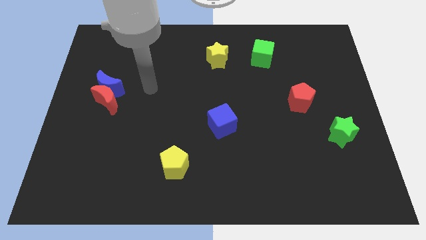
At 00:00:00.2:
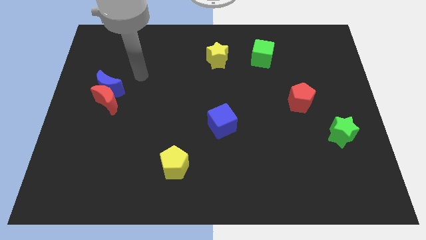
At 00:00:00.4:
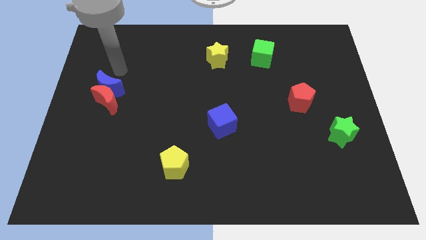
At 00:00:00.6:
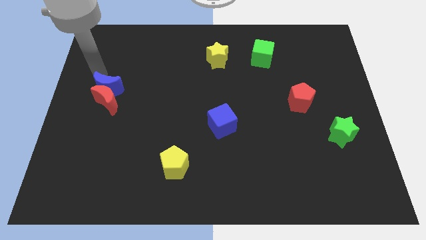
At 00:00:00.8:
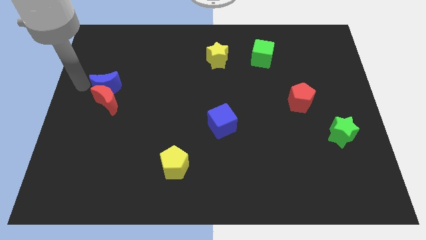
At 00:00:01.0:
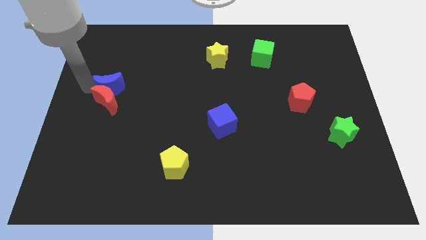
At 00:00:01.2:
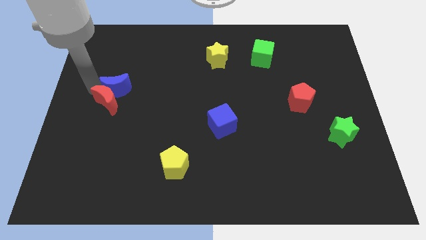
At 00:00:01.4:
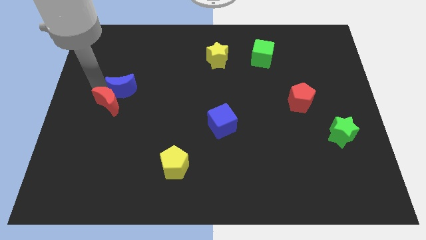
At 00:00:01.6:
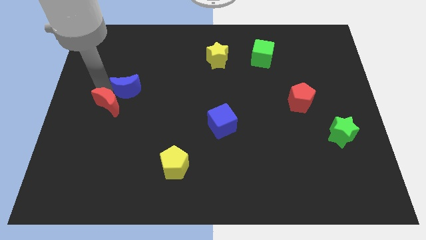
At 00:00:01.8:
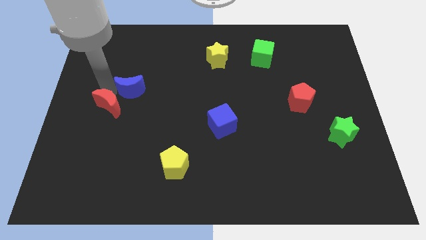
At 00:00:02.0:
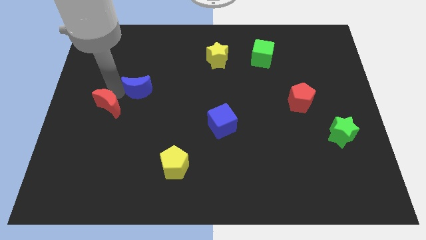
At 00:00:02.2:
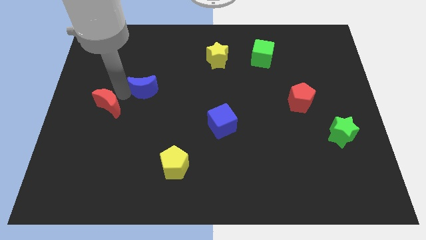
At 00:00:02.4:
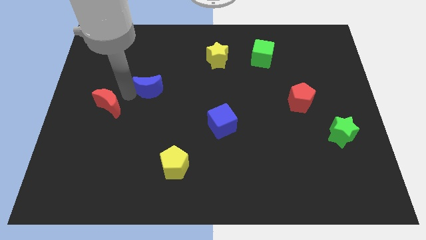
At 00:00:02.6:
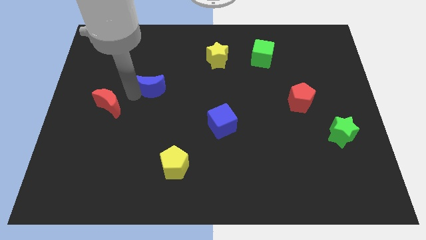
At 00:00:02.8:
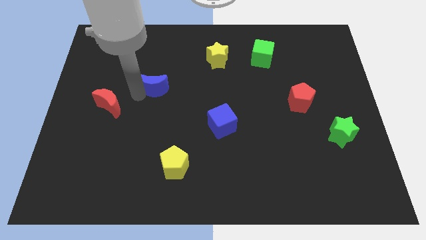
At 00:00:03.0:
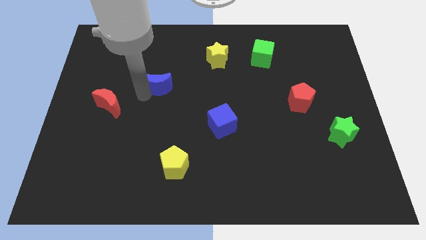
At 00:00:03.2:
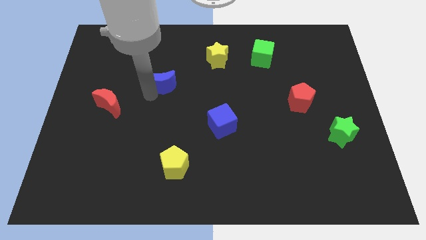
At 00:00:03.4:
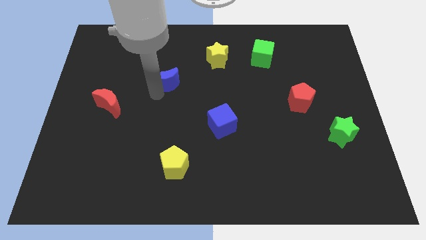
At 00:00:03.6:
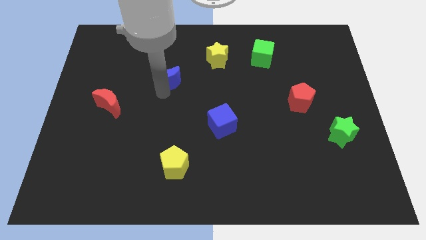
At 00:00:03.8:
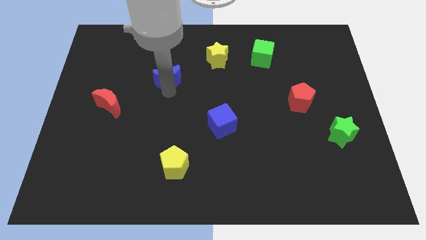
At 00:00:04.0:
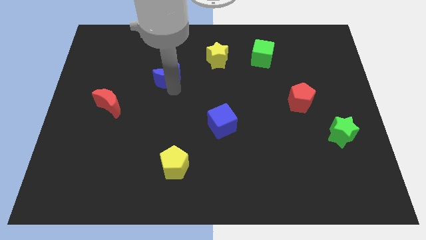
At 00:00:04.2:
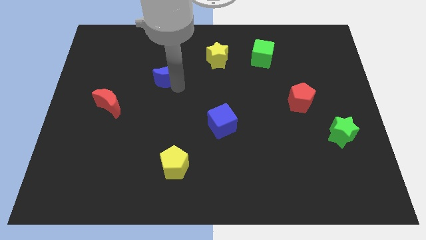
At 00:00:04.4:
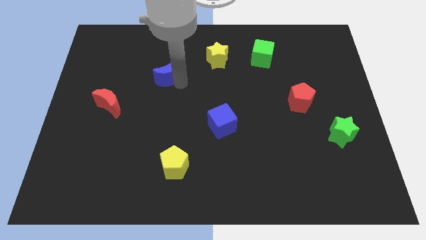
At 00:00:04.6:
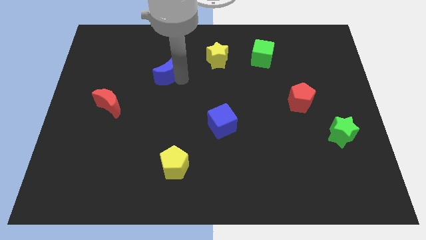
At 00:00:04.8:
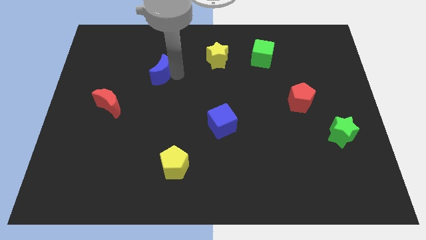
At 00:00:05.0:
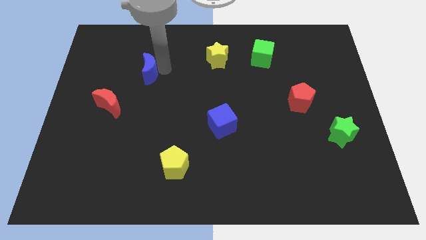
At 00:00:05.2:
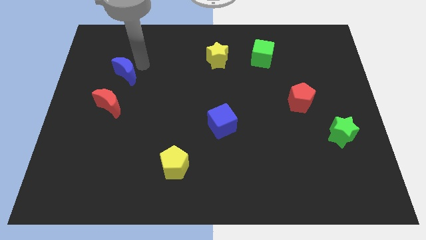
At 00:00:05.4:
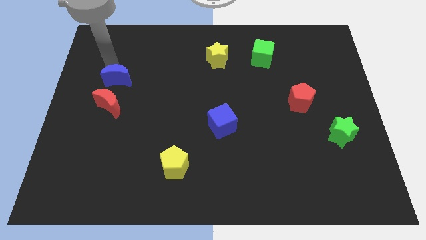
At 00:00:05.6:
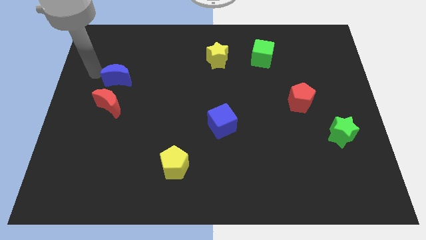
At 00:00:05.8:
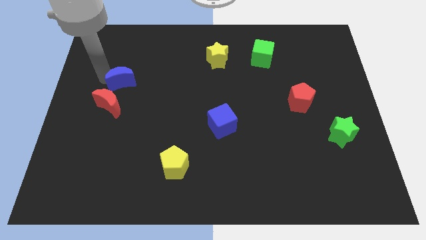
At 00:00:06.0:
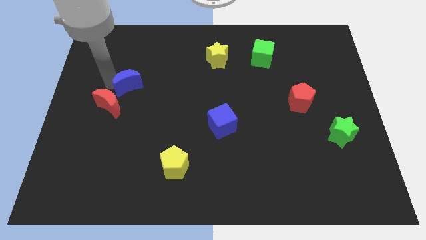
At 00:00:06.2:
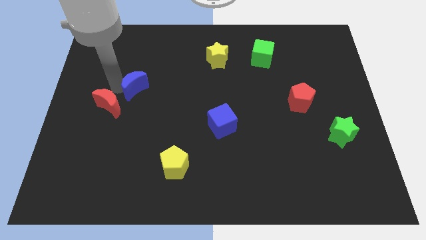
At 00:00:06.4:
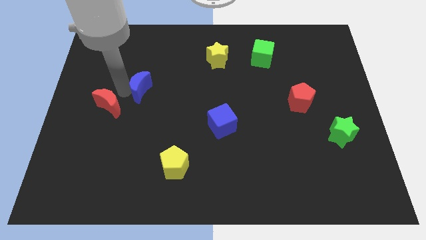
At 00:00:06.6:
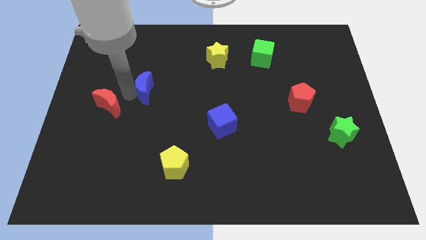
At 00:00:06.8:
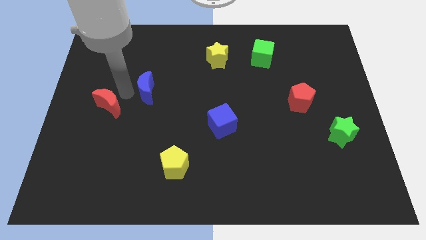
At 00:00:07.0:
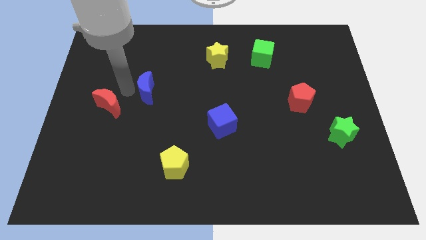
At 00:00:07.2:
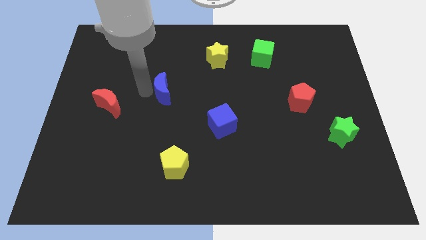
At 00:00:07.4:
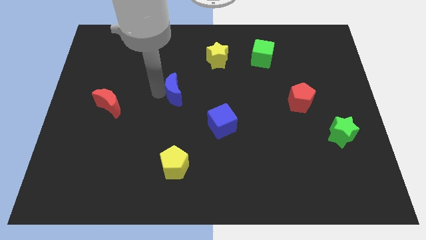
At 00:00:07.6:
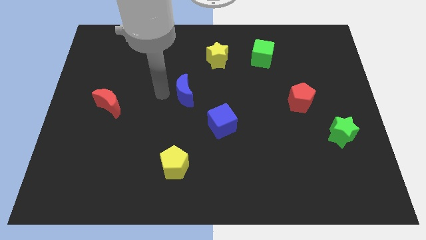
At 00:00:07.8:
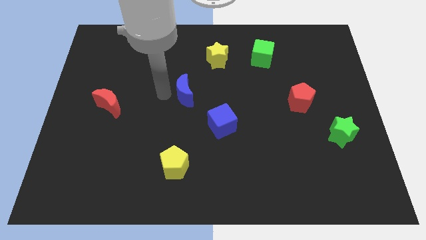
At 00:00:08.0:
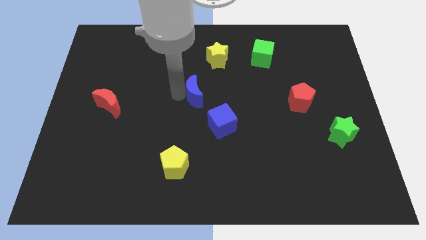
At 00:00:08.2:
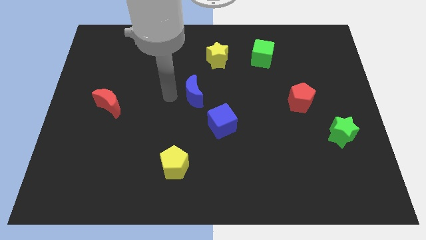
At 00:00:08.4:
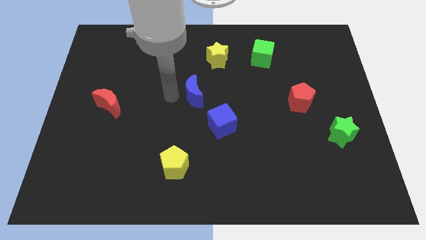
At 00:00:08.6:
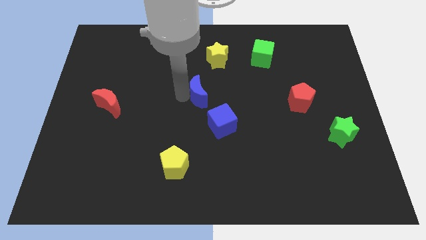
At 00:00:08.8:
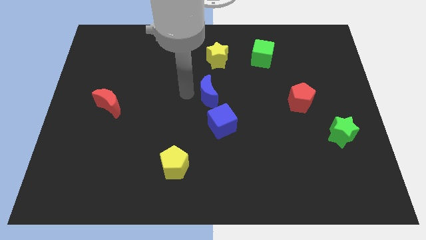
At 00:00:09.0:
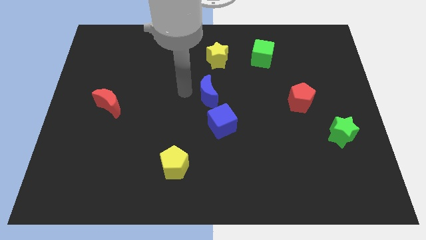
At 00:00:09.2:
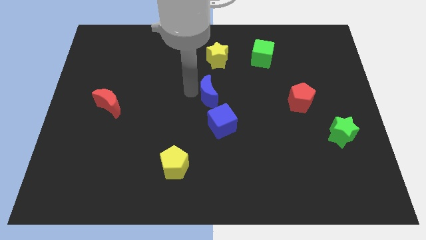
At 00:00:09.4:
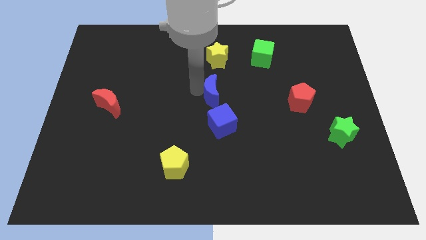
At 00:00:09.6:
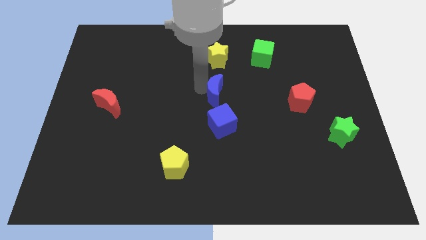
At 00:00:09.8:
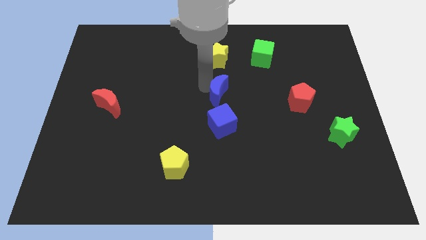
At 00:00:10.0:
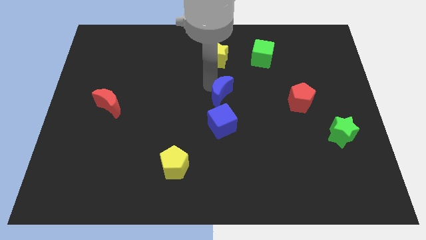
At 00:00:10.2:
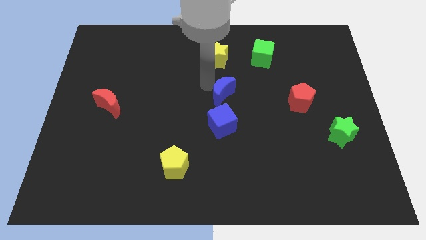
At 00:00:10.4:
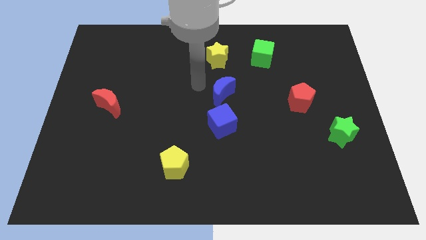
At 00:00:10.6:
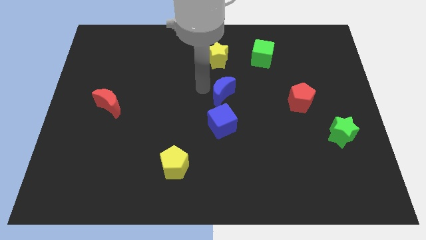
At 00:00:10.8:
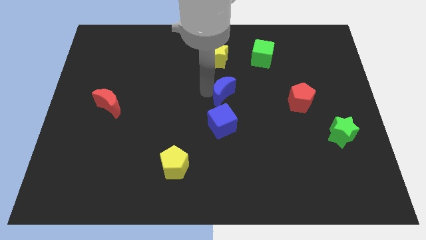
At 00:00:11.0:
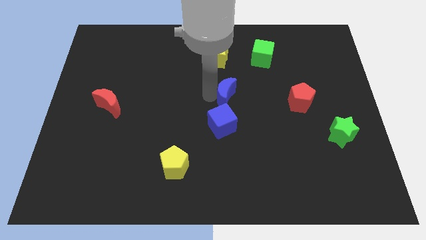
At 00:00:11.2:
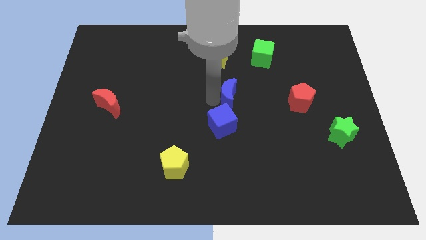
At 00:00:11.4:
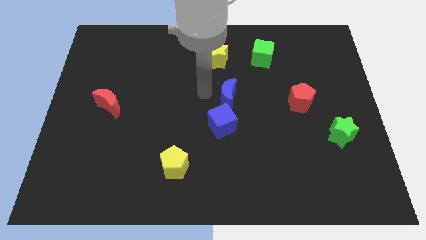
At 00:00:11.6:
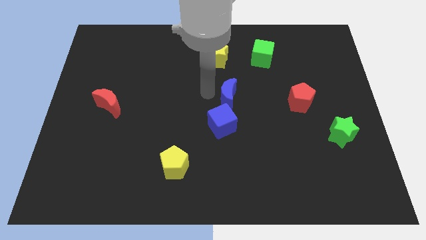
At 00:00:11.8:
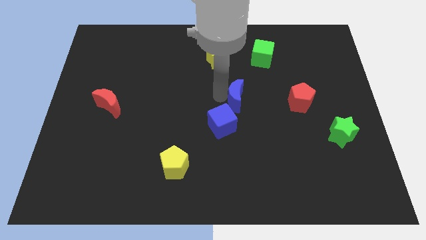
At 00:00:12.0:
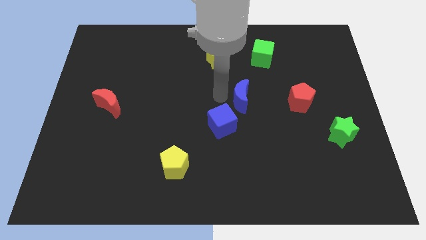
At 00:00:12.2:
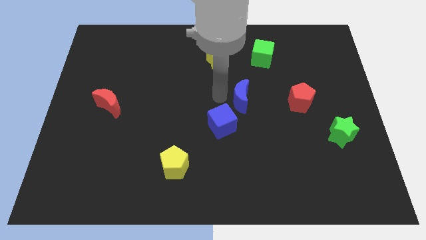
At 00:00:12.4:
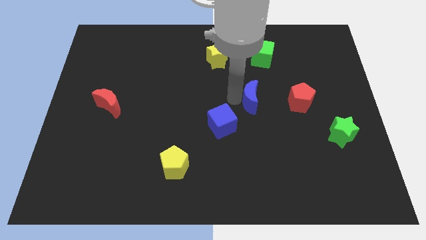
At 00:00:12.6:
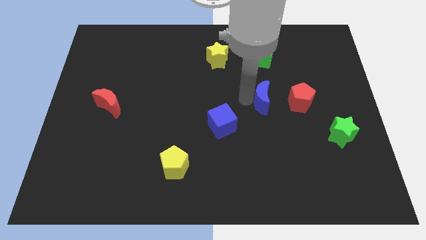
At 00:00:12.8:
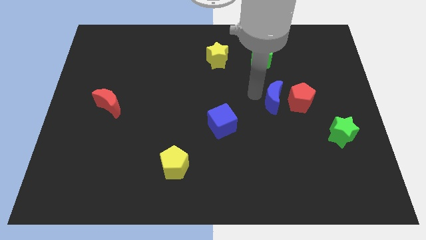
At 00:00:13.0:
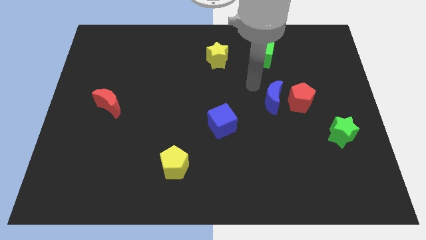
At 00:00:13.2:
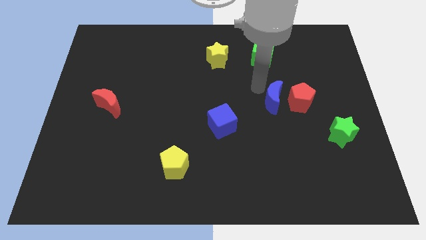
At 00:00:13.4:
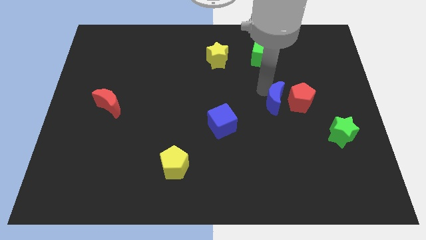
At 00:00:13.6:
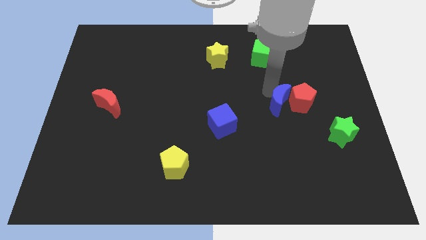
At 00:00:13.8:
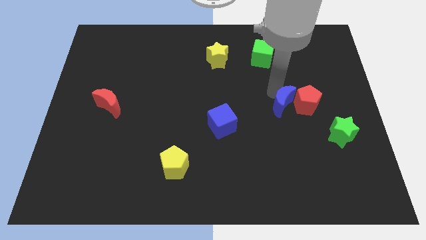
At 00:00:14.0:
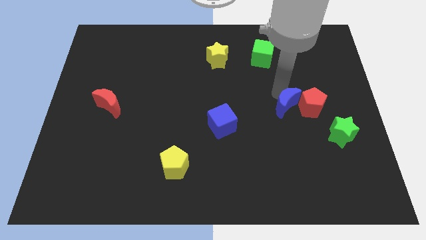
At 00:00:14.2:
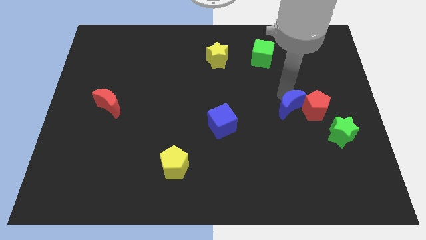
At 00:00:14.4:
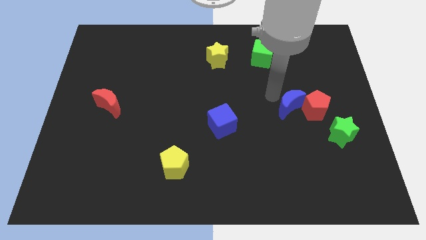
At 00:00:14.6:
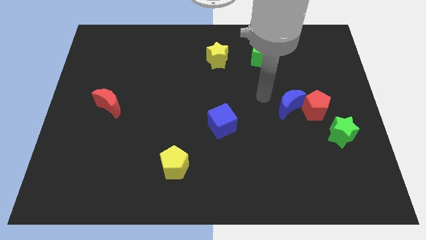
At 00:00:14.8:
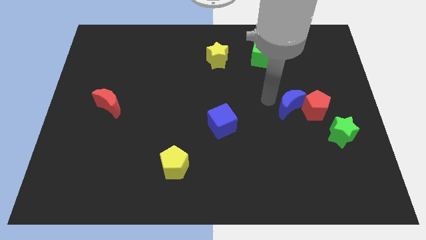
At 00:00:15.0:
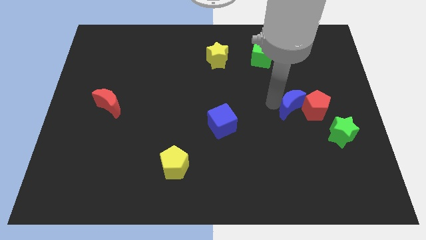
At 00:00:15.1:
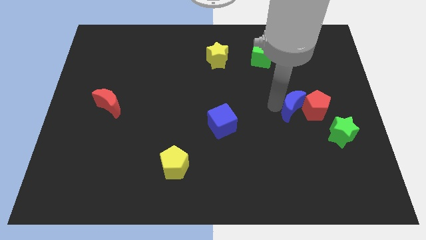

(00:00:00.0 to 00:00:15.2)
put the blue moon diagonally up and to the left of the green star
